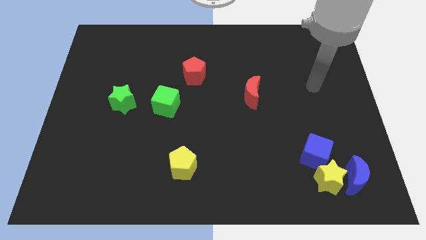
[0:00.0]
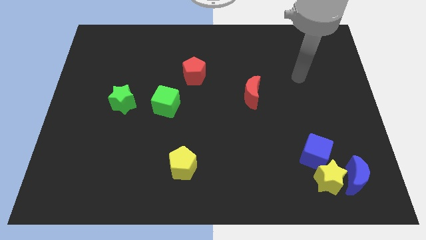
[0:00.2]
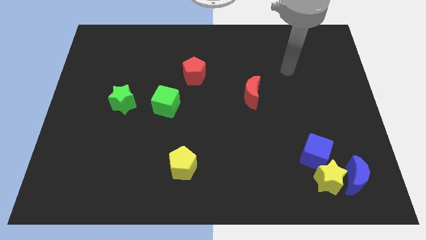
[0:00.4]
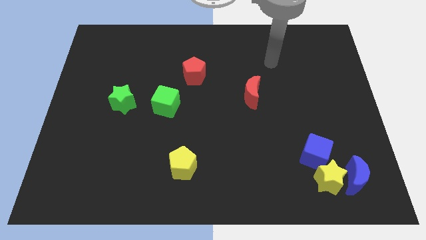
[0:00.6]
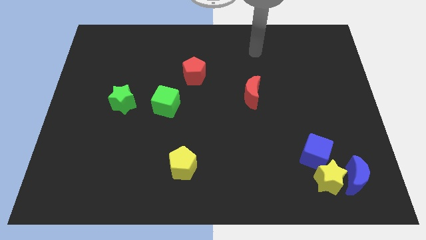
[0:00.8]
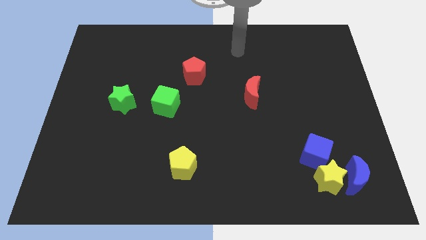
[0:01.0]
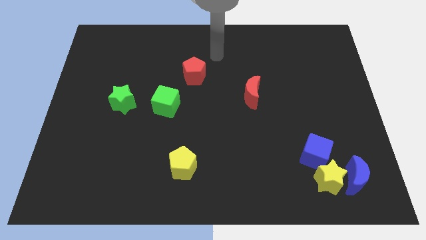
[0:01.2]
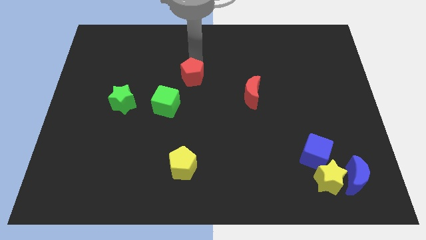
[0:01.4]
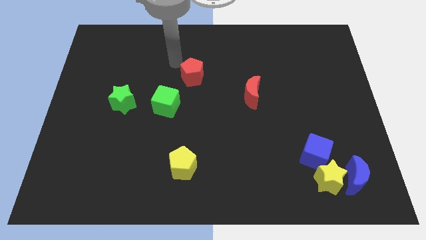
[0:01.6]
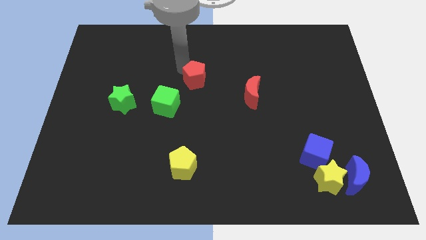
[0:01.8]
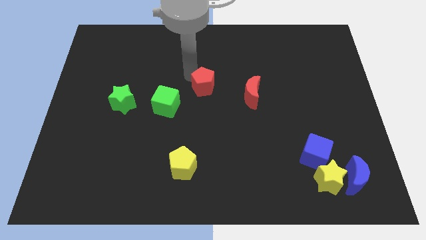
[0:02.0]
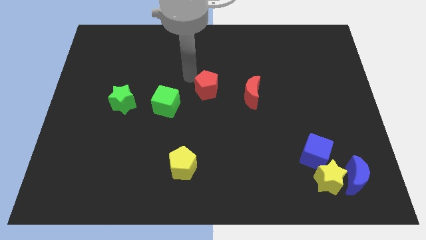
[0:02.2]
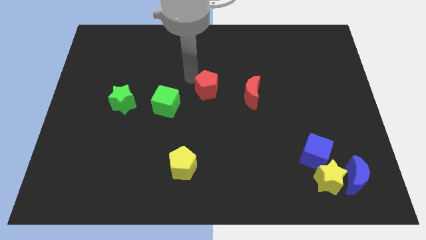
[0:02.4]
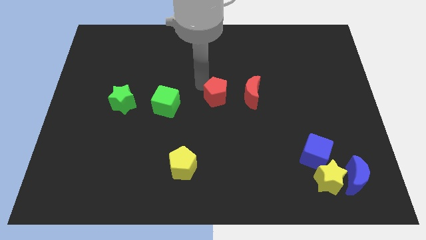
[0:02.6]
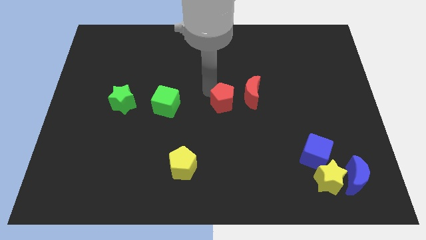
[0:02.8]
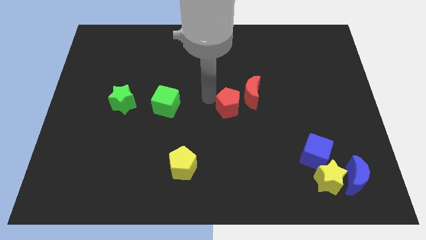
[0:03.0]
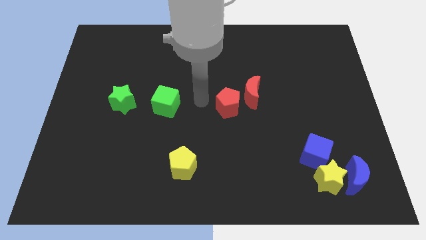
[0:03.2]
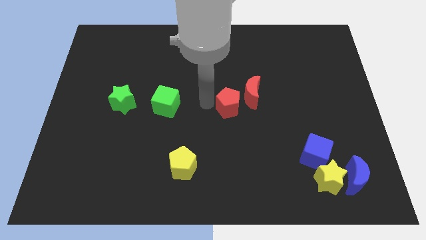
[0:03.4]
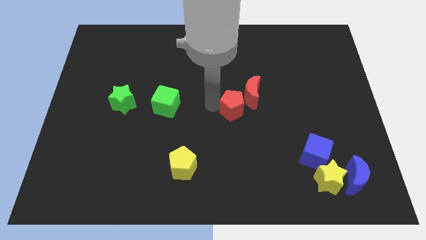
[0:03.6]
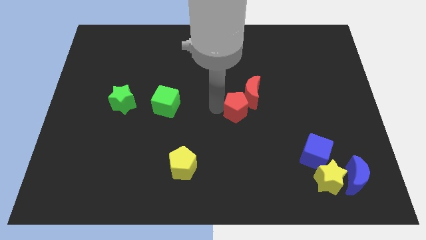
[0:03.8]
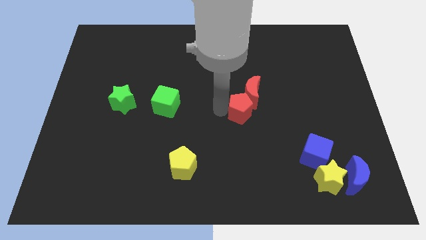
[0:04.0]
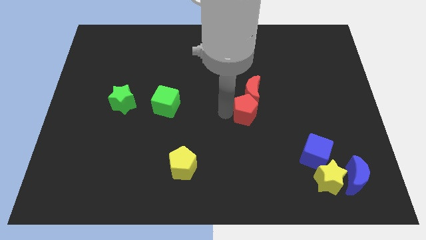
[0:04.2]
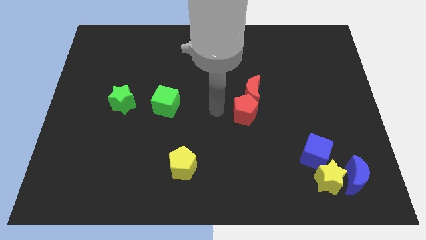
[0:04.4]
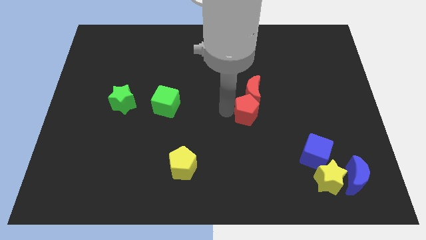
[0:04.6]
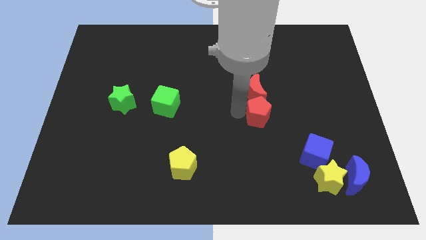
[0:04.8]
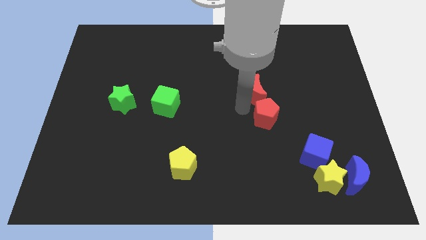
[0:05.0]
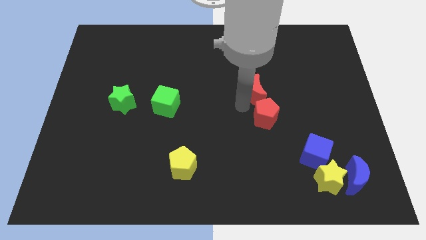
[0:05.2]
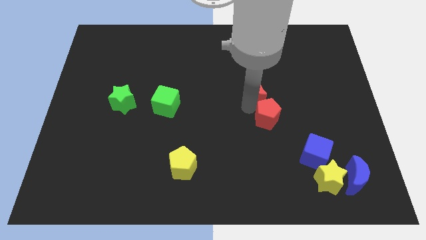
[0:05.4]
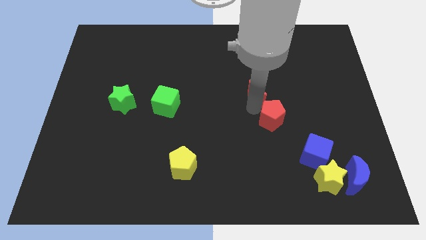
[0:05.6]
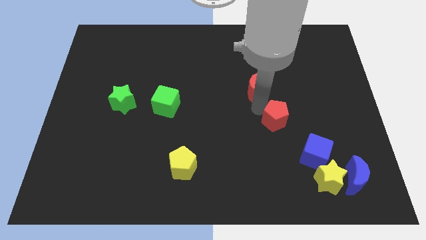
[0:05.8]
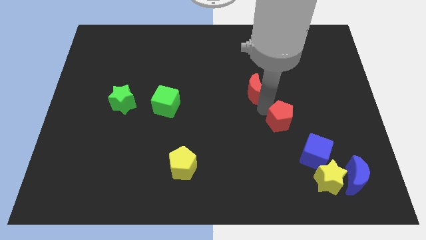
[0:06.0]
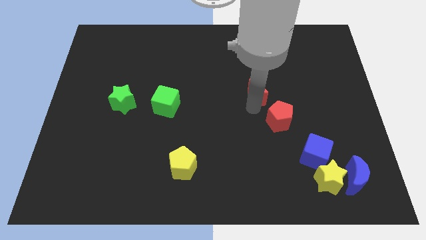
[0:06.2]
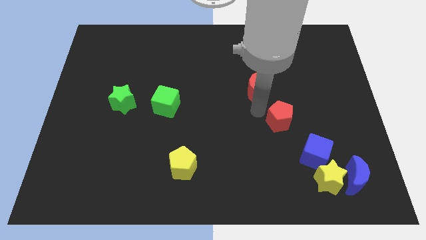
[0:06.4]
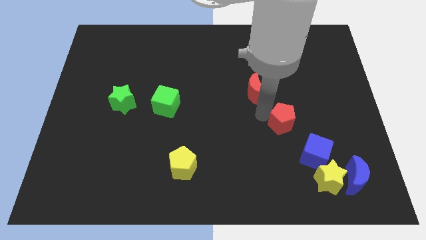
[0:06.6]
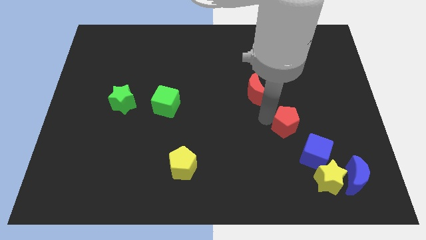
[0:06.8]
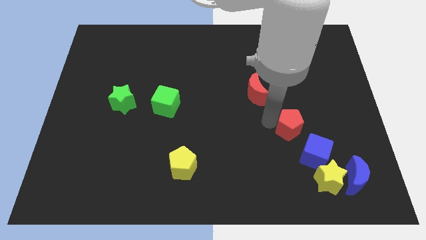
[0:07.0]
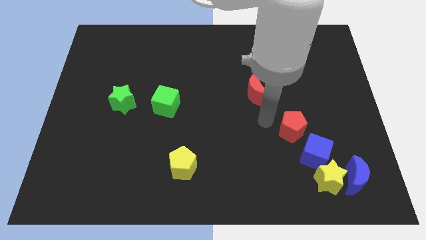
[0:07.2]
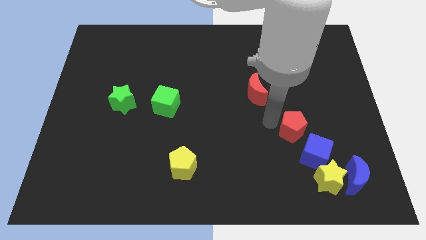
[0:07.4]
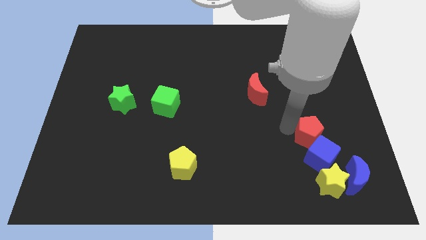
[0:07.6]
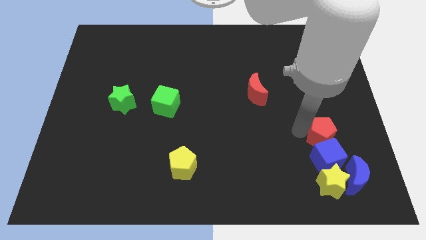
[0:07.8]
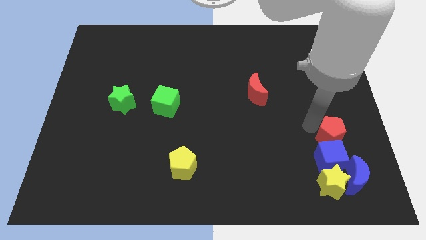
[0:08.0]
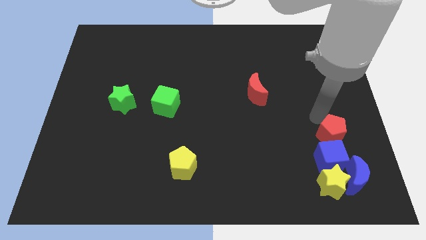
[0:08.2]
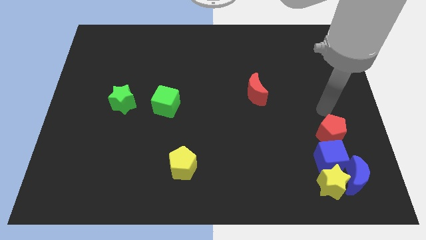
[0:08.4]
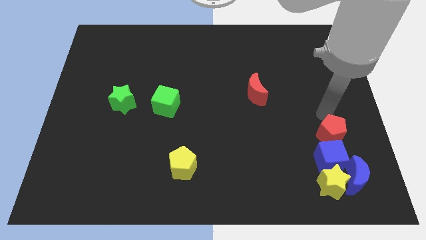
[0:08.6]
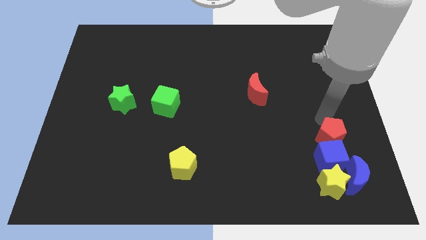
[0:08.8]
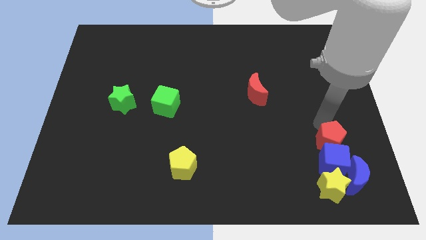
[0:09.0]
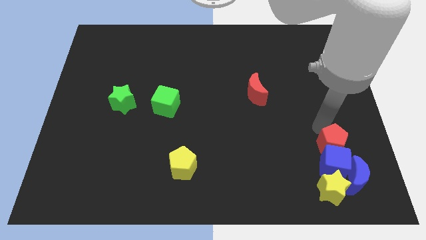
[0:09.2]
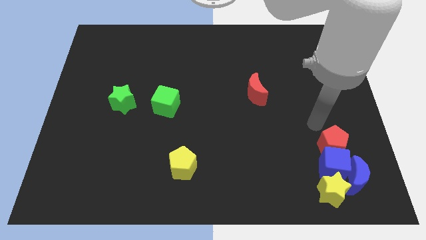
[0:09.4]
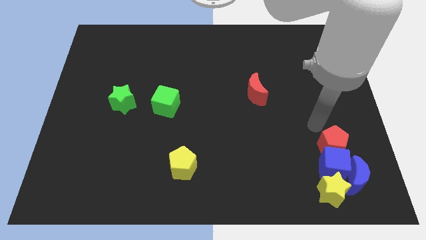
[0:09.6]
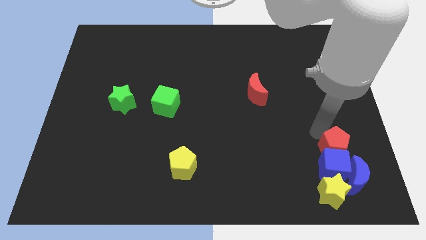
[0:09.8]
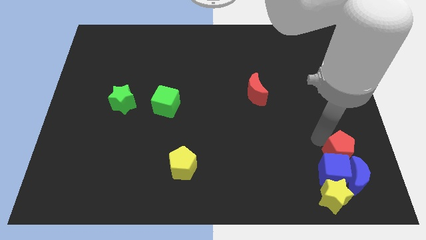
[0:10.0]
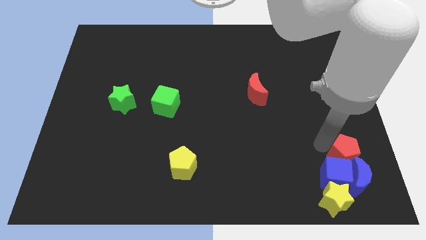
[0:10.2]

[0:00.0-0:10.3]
slide the red pentagon close to the blue moon

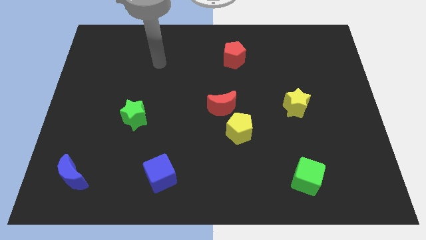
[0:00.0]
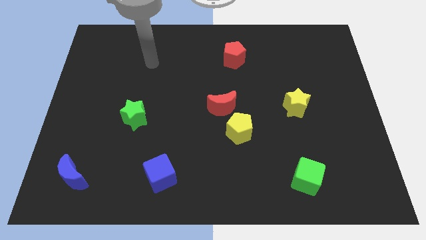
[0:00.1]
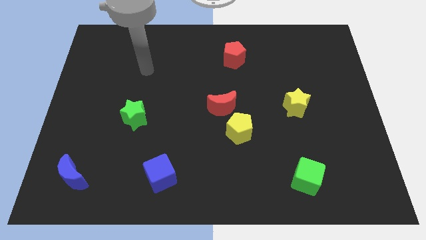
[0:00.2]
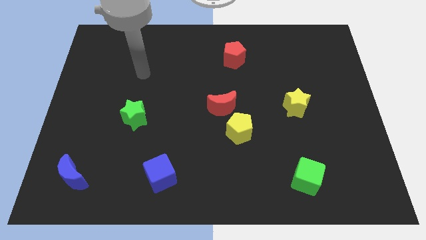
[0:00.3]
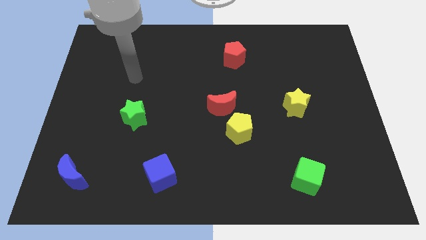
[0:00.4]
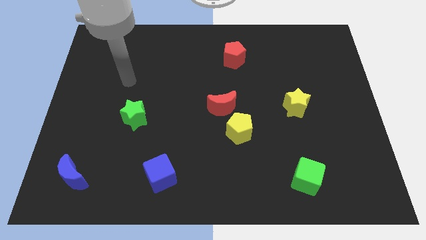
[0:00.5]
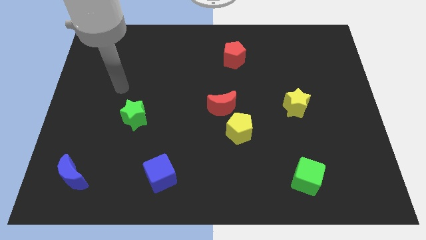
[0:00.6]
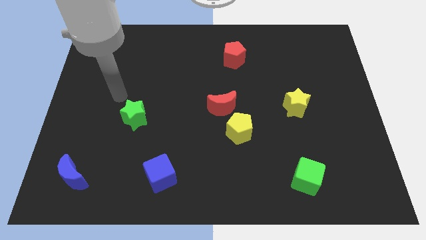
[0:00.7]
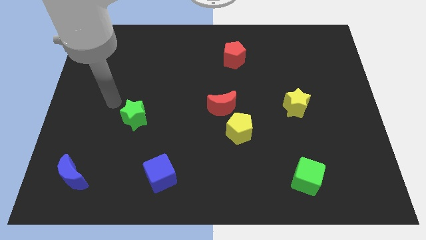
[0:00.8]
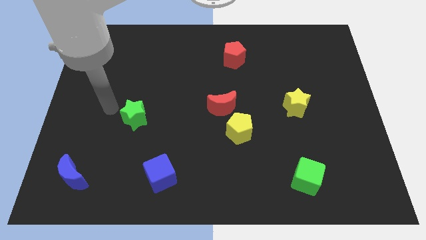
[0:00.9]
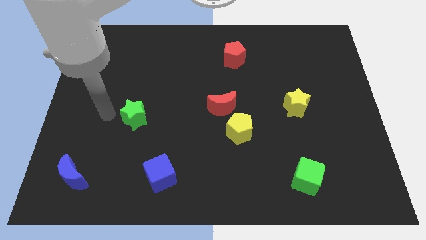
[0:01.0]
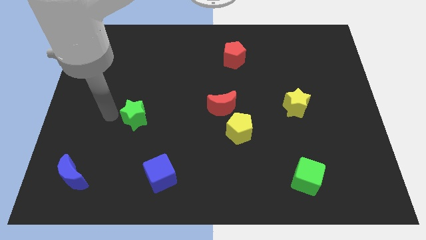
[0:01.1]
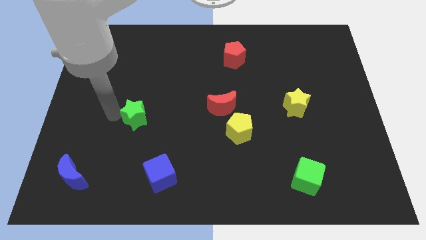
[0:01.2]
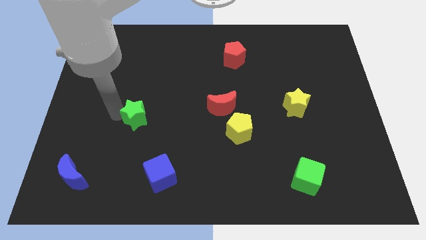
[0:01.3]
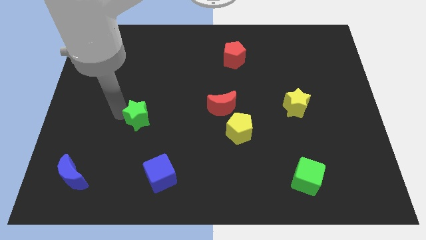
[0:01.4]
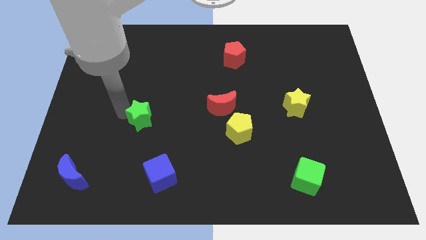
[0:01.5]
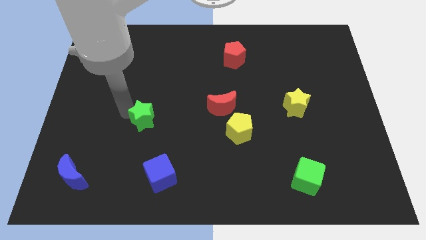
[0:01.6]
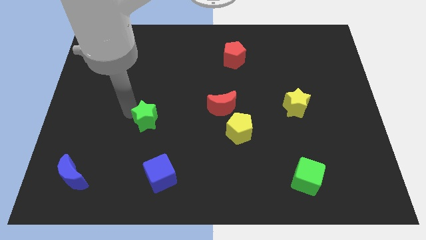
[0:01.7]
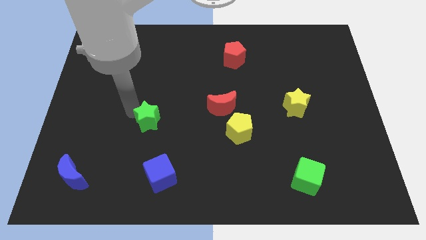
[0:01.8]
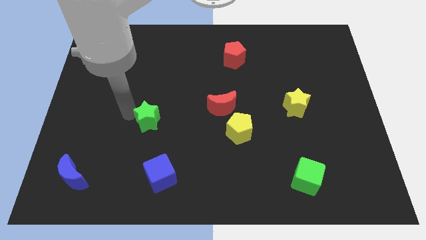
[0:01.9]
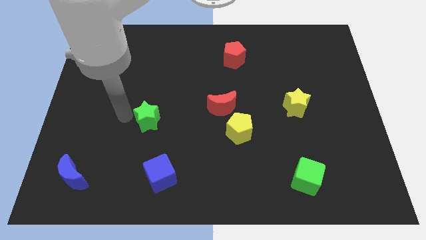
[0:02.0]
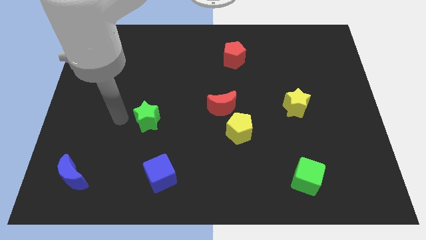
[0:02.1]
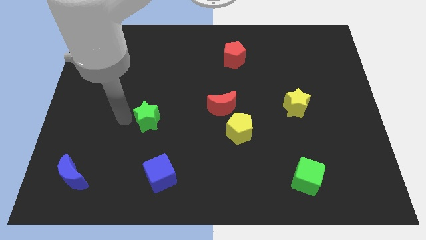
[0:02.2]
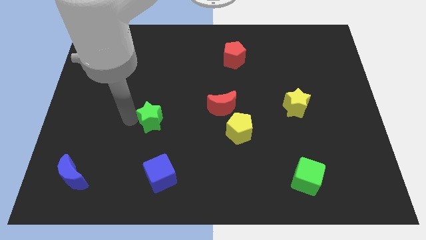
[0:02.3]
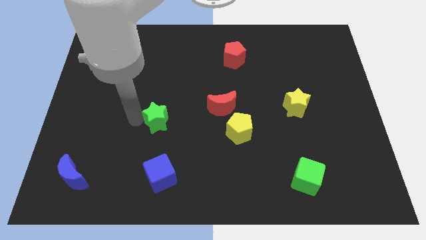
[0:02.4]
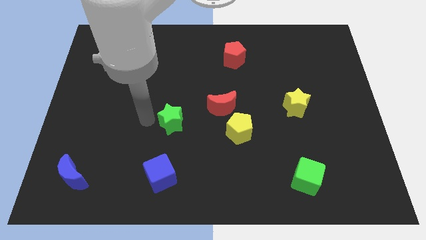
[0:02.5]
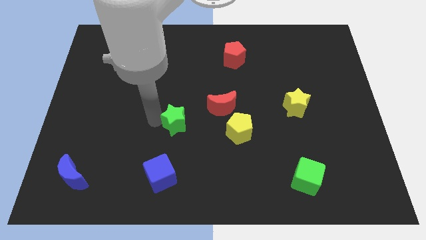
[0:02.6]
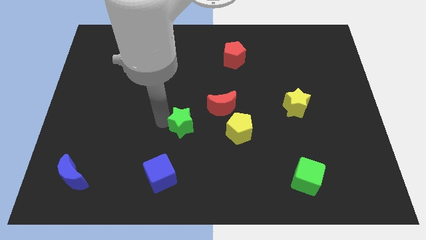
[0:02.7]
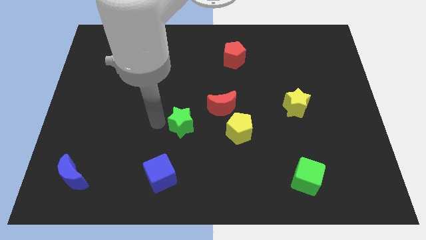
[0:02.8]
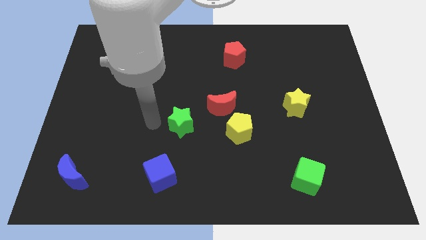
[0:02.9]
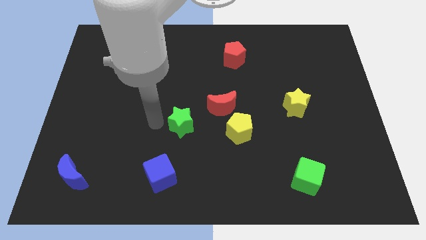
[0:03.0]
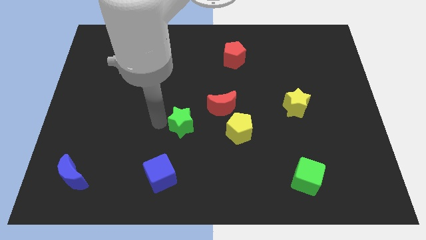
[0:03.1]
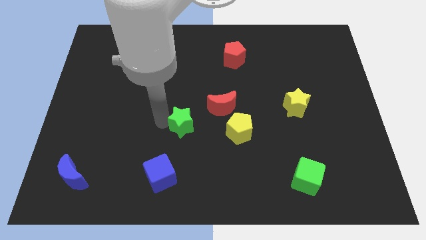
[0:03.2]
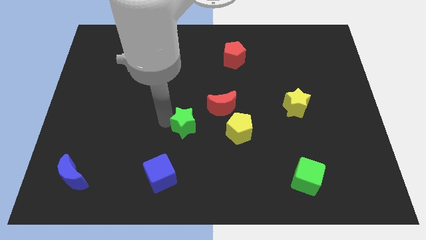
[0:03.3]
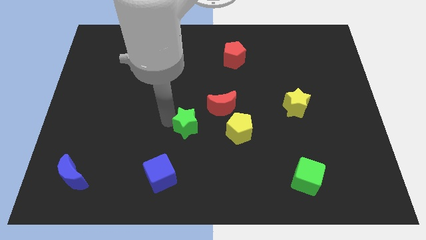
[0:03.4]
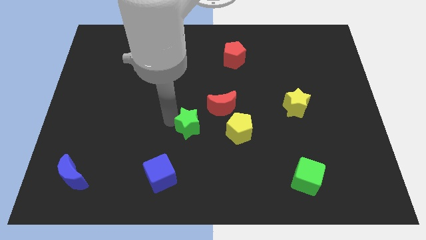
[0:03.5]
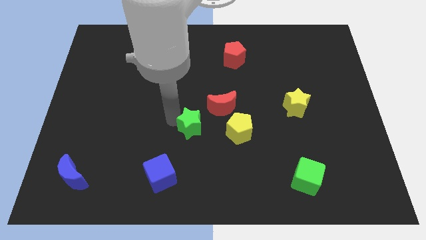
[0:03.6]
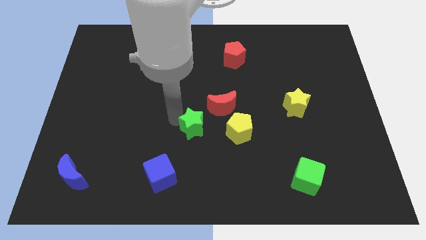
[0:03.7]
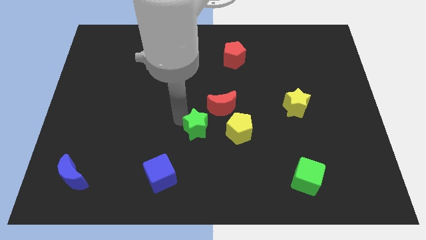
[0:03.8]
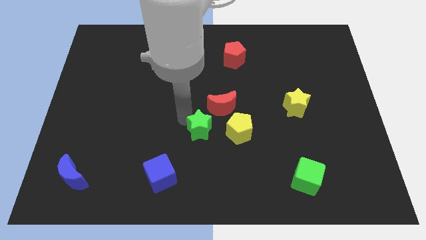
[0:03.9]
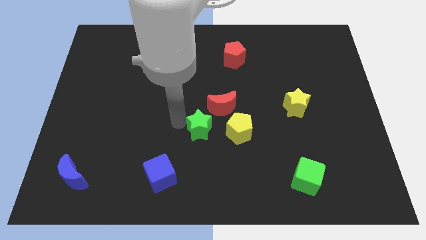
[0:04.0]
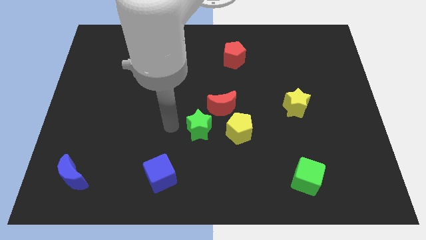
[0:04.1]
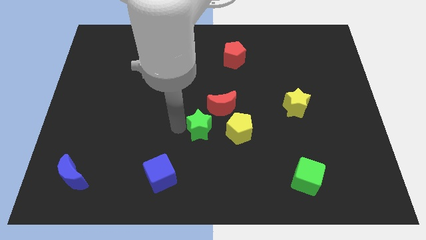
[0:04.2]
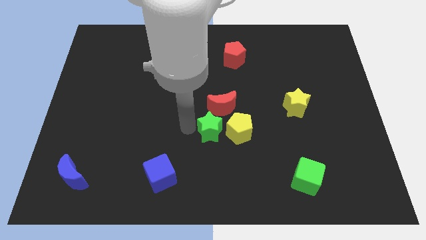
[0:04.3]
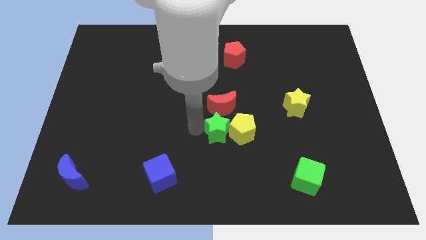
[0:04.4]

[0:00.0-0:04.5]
slide the green star next to the yellow pentagon
